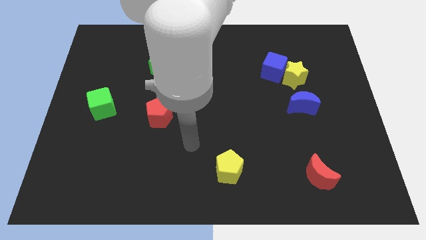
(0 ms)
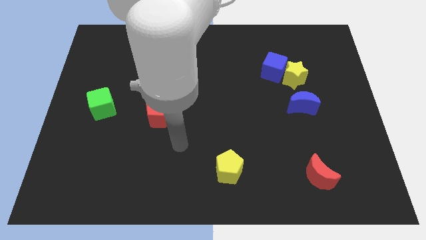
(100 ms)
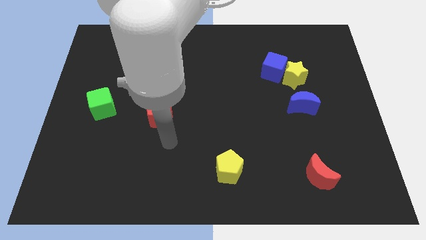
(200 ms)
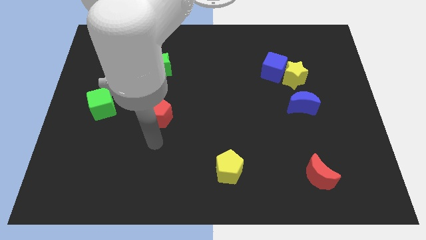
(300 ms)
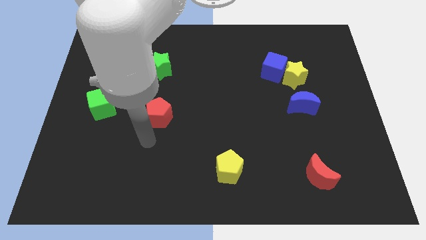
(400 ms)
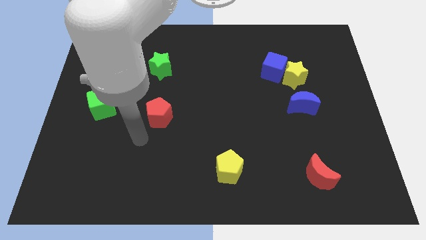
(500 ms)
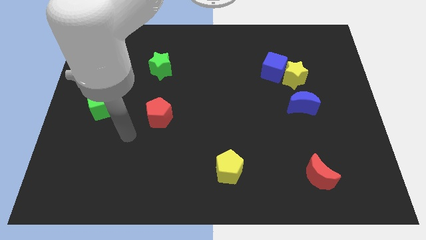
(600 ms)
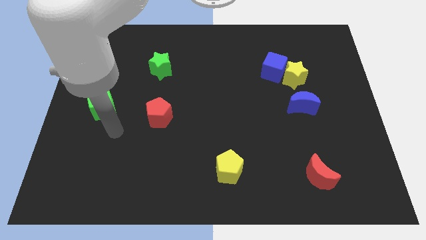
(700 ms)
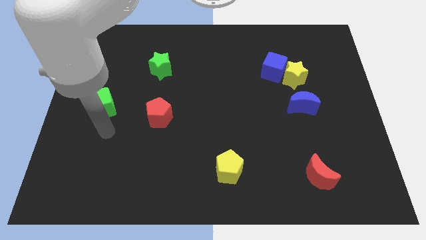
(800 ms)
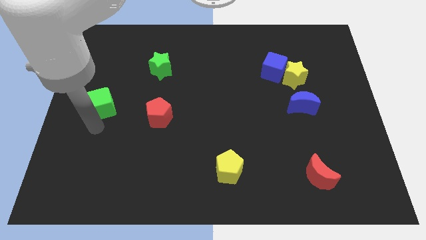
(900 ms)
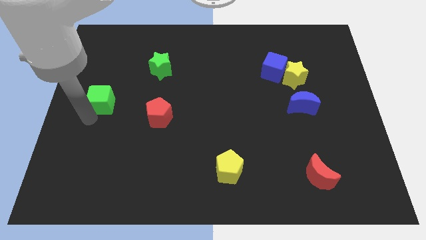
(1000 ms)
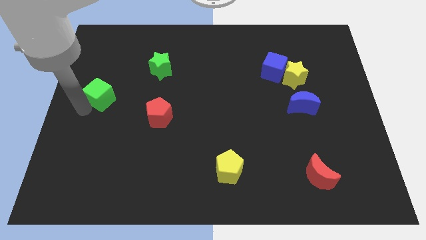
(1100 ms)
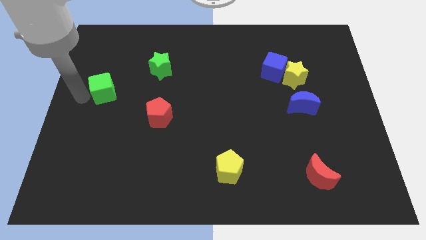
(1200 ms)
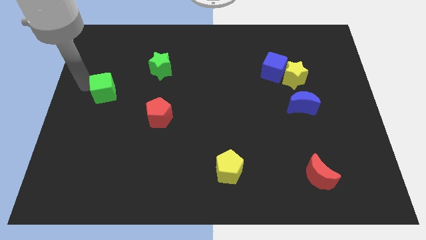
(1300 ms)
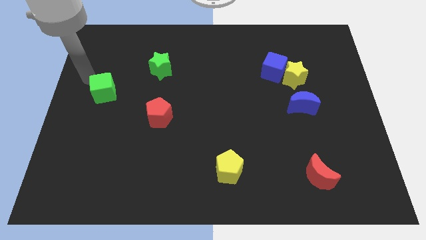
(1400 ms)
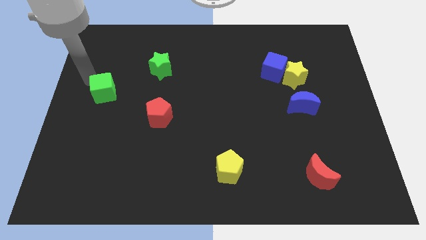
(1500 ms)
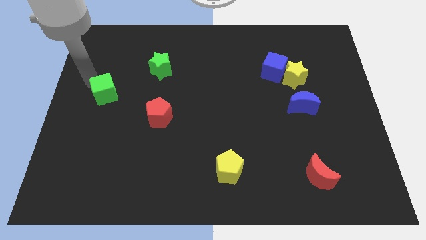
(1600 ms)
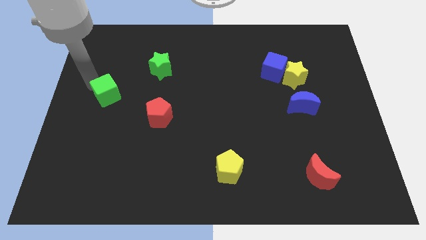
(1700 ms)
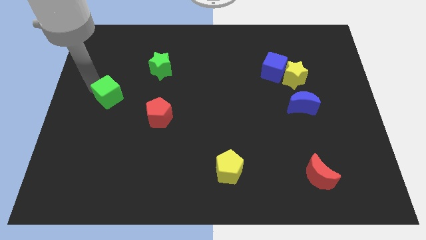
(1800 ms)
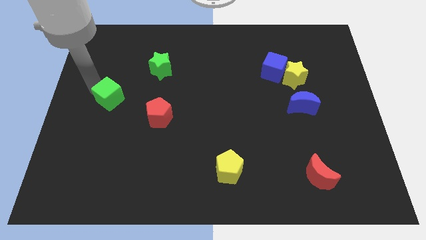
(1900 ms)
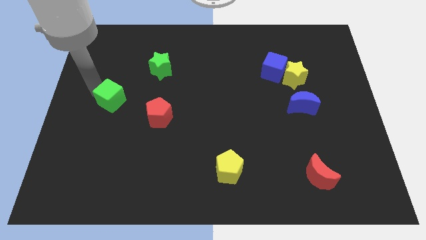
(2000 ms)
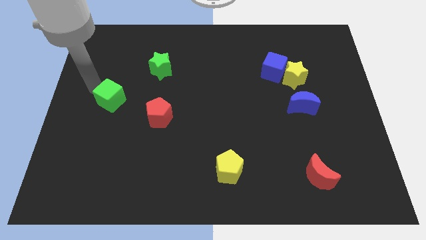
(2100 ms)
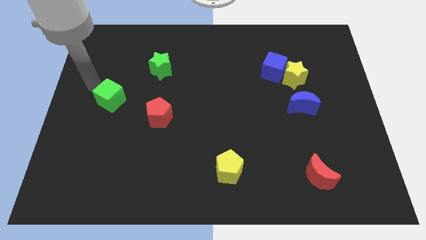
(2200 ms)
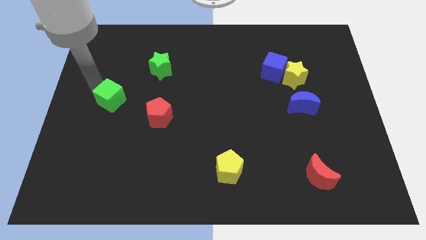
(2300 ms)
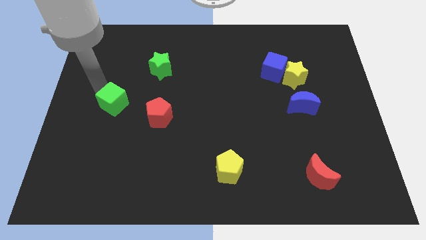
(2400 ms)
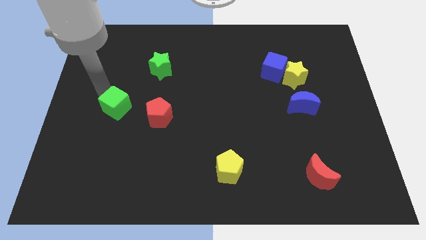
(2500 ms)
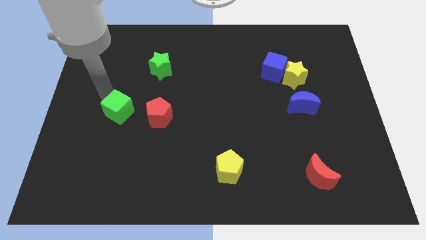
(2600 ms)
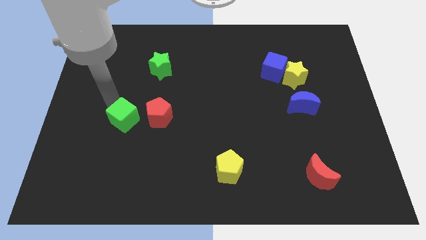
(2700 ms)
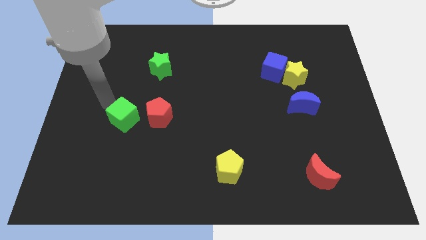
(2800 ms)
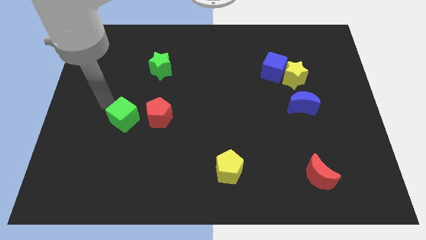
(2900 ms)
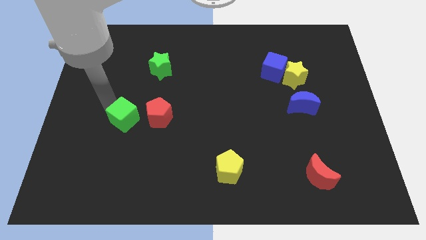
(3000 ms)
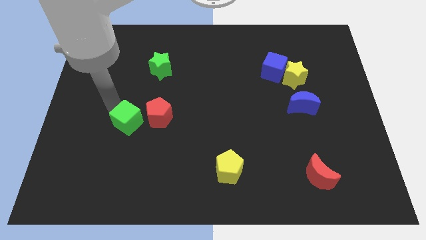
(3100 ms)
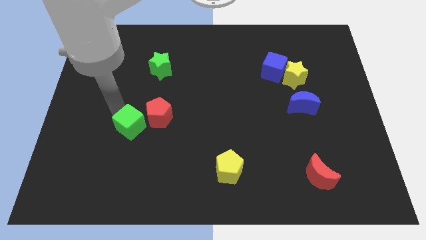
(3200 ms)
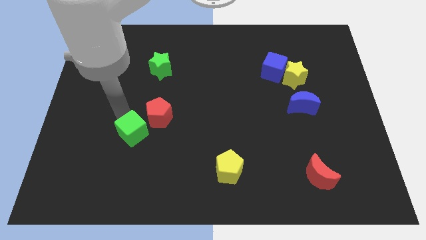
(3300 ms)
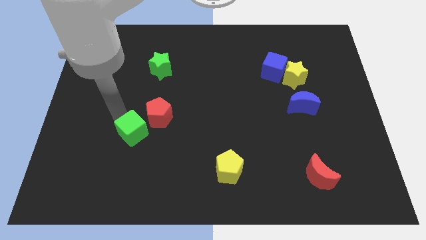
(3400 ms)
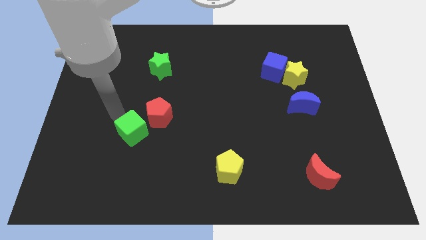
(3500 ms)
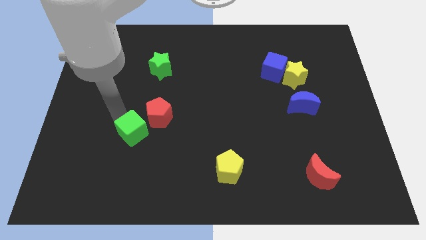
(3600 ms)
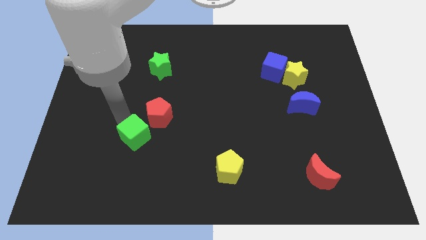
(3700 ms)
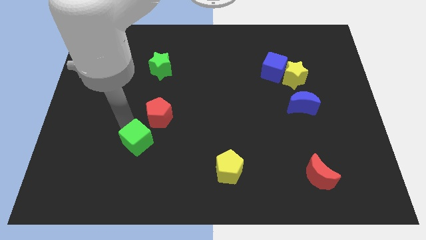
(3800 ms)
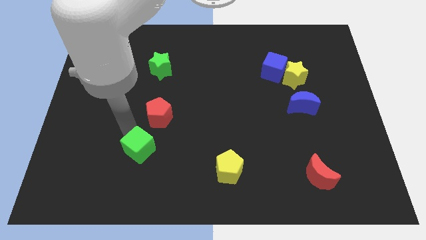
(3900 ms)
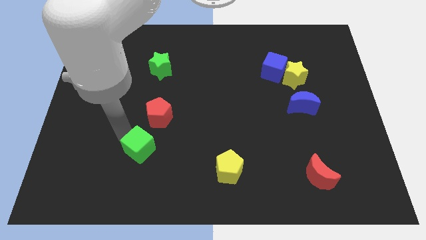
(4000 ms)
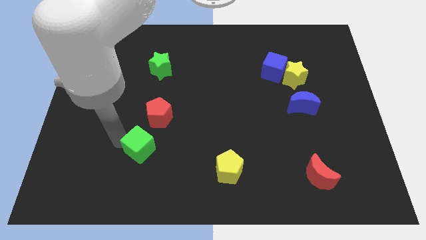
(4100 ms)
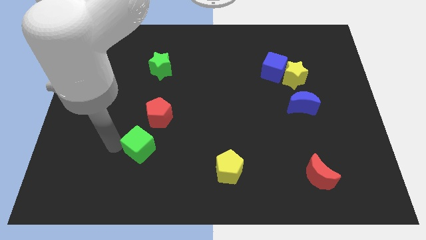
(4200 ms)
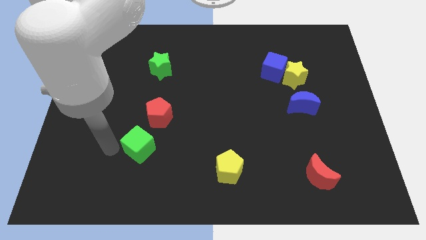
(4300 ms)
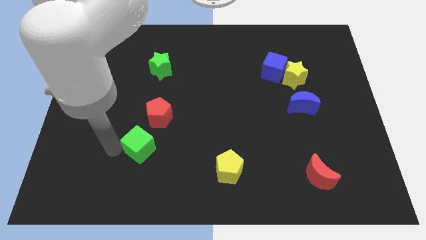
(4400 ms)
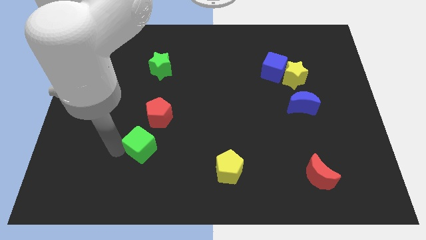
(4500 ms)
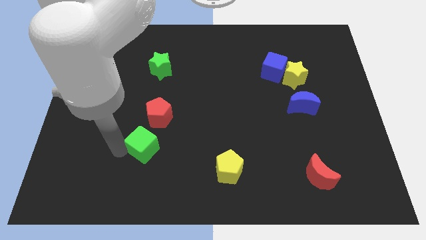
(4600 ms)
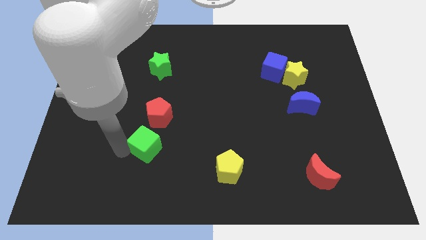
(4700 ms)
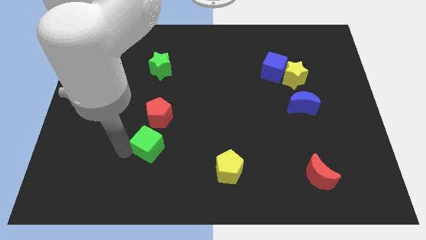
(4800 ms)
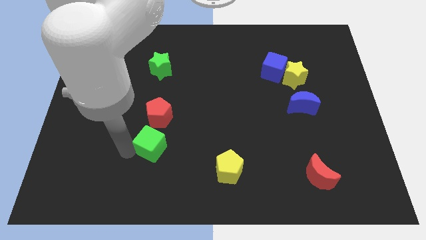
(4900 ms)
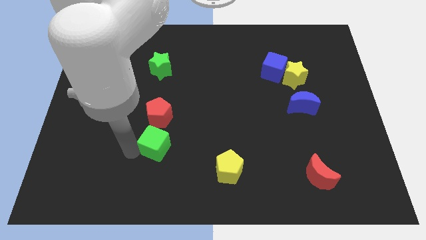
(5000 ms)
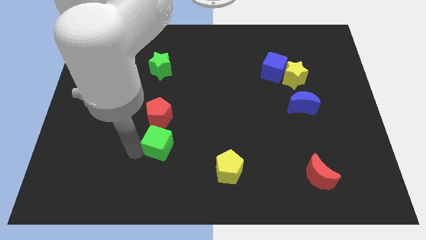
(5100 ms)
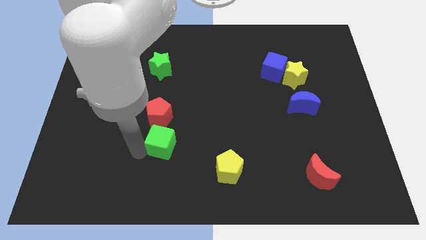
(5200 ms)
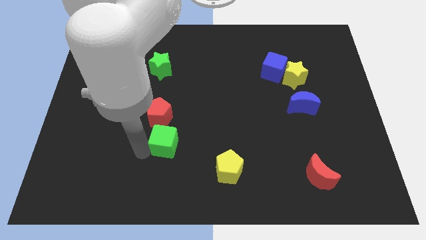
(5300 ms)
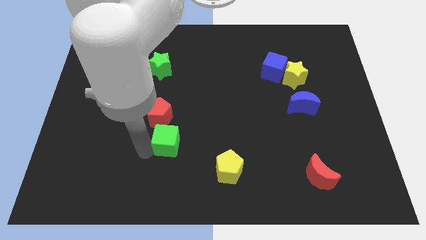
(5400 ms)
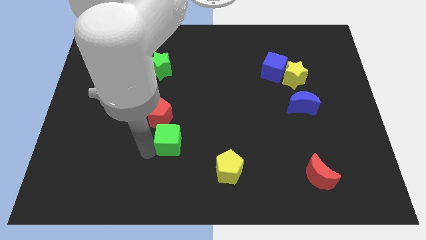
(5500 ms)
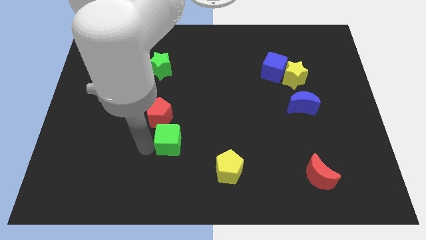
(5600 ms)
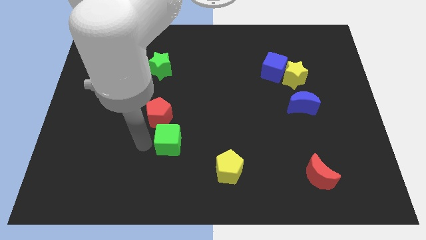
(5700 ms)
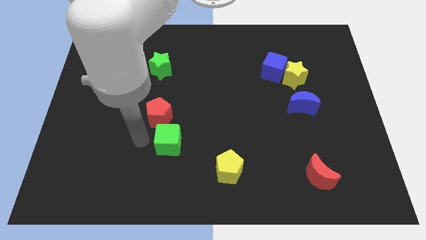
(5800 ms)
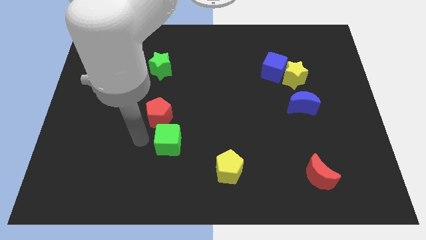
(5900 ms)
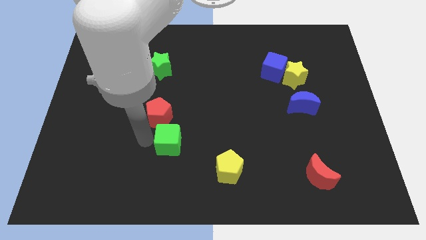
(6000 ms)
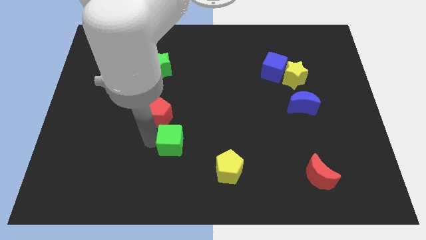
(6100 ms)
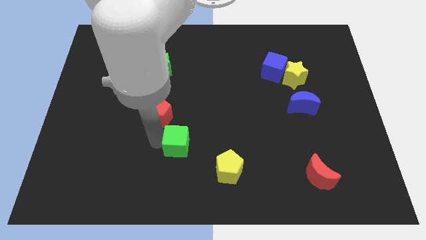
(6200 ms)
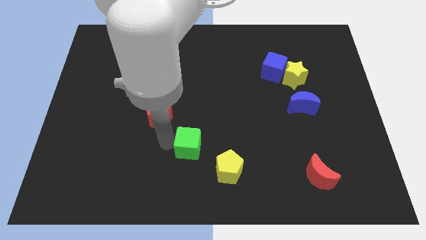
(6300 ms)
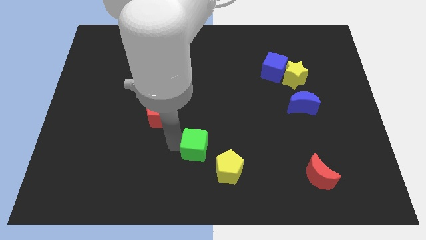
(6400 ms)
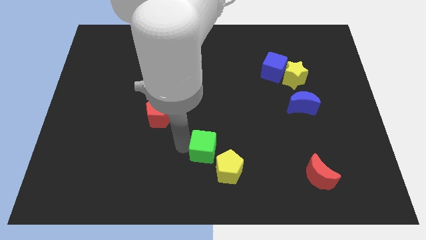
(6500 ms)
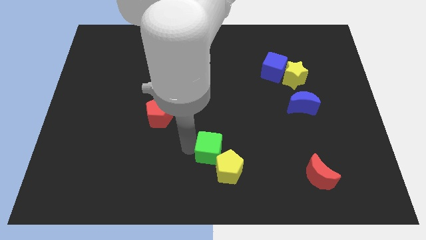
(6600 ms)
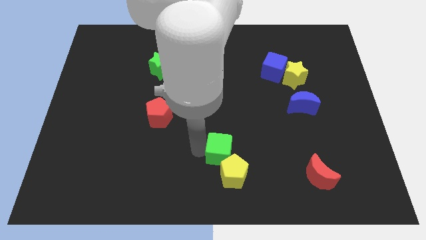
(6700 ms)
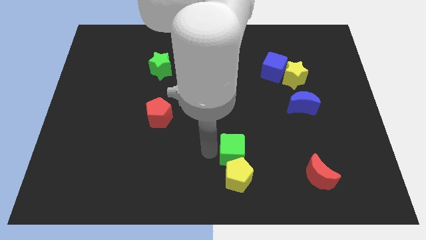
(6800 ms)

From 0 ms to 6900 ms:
move the green cube to the top right side of the yellow pentagon

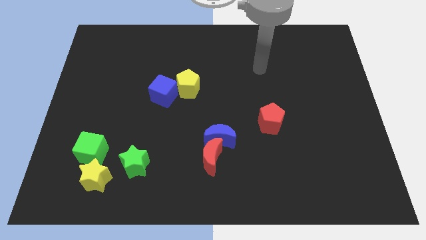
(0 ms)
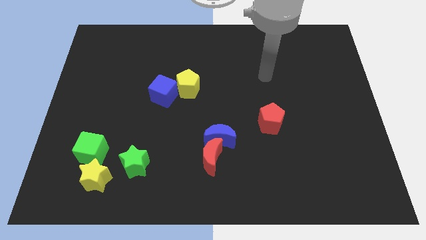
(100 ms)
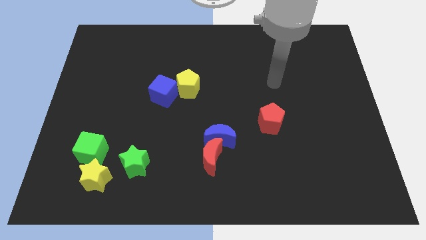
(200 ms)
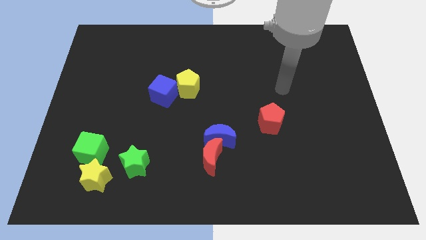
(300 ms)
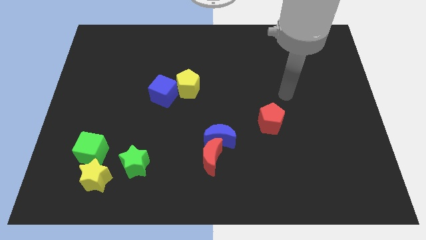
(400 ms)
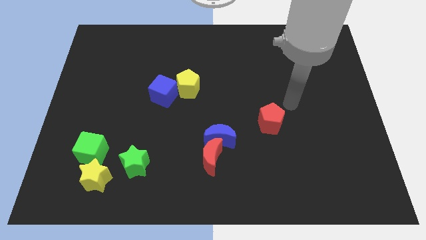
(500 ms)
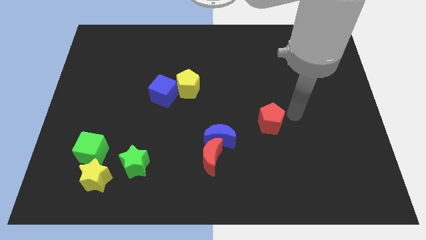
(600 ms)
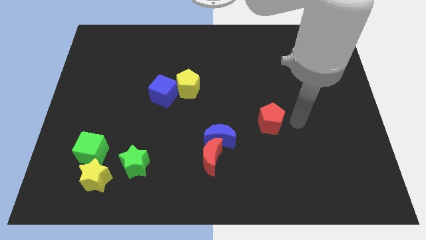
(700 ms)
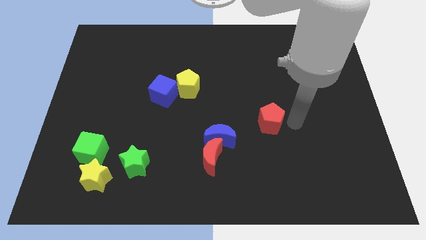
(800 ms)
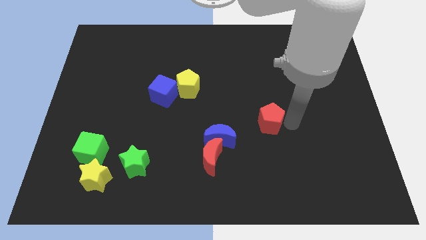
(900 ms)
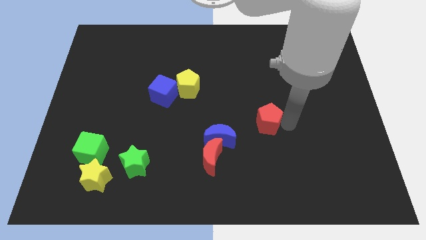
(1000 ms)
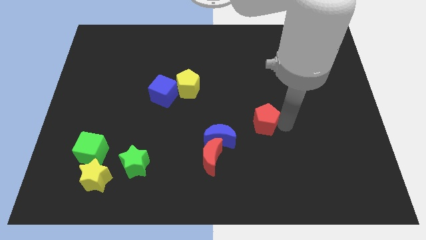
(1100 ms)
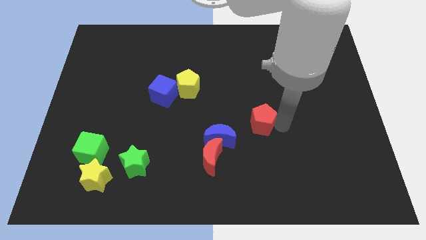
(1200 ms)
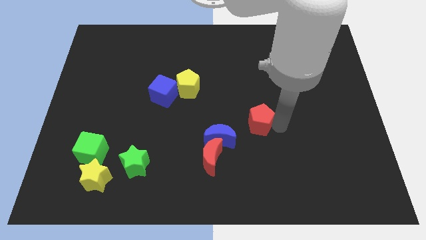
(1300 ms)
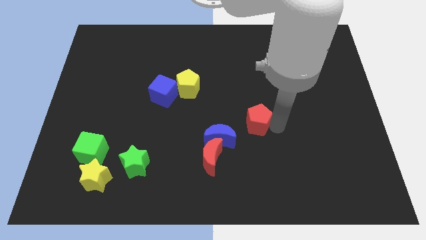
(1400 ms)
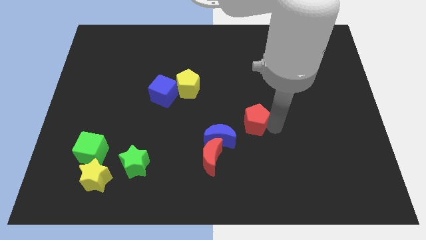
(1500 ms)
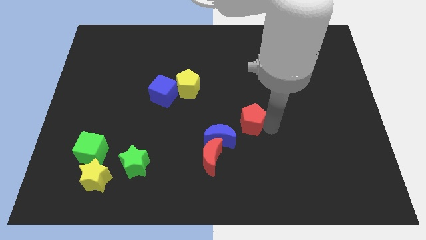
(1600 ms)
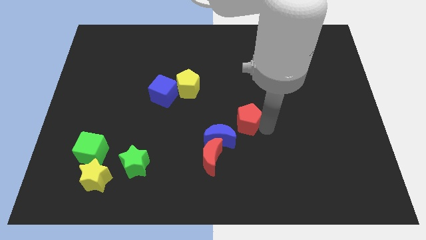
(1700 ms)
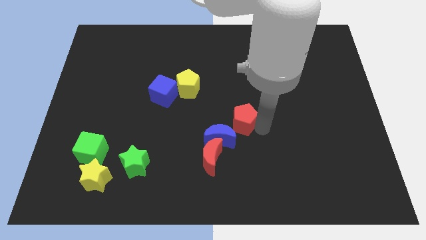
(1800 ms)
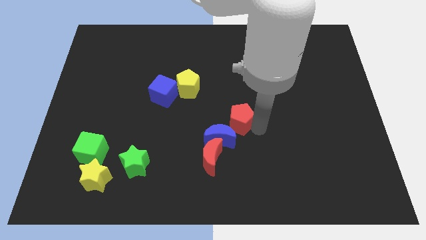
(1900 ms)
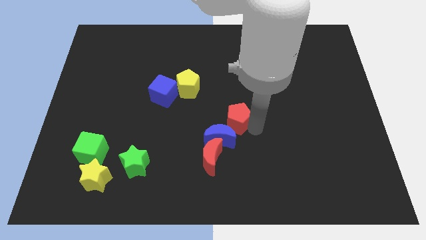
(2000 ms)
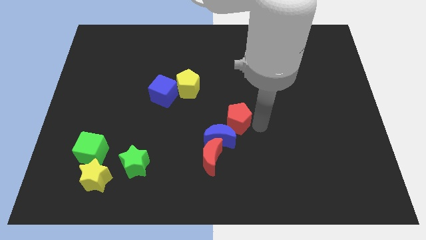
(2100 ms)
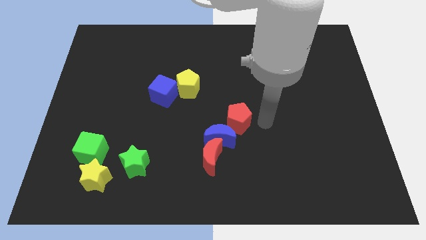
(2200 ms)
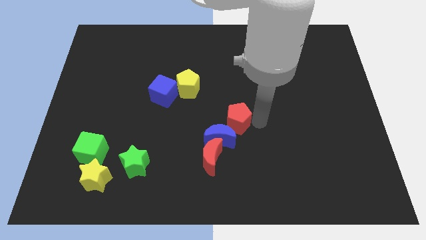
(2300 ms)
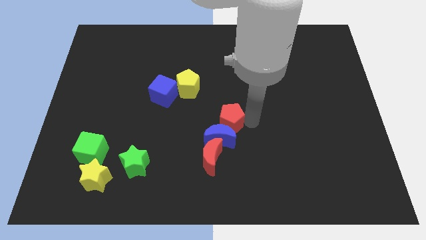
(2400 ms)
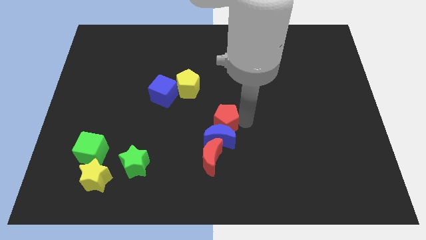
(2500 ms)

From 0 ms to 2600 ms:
slide the red pentagon diagonally up and to the left of the blue moon
